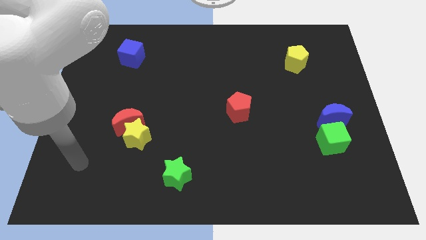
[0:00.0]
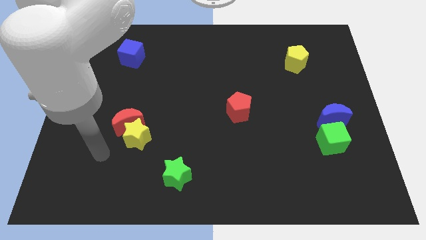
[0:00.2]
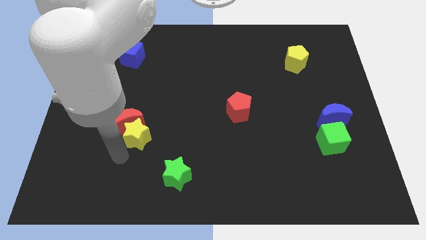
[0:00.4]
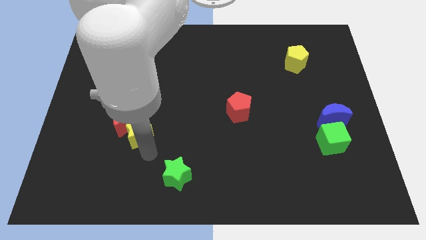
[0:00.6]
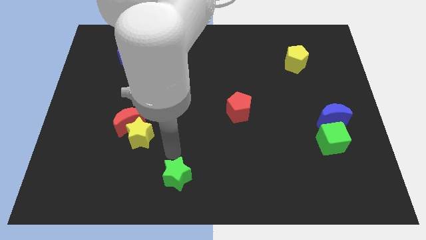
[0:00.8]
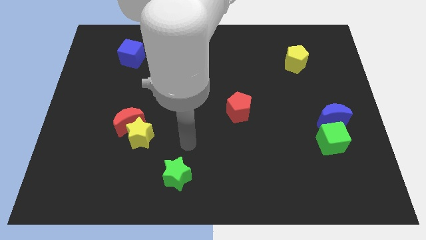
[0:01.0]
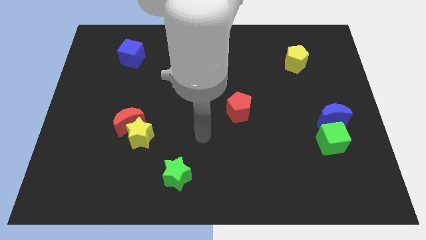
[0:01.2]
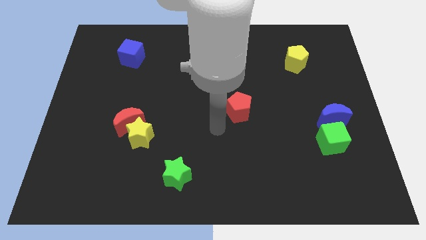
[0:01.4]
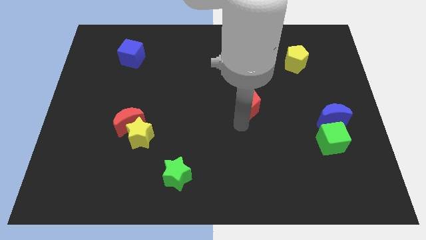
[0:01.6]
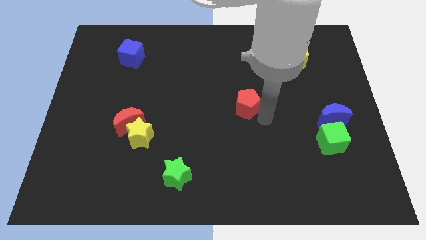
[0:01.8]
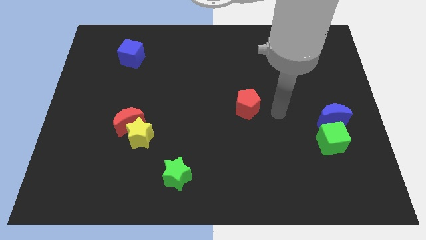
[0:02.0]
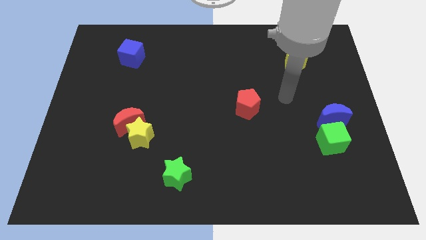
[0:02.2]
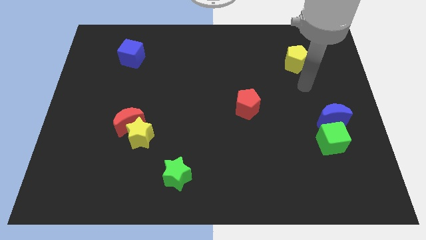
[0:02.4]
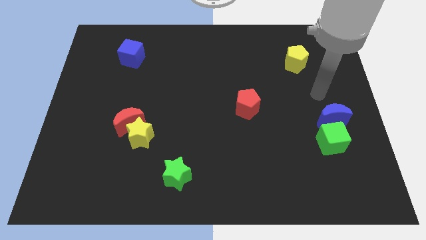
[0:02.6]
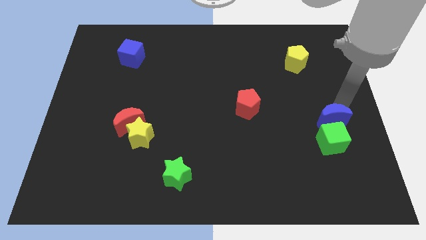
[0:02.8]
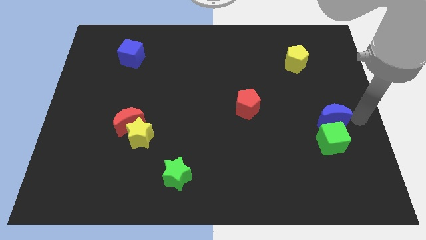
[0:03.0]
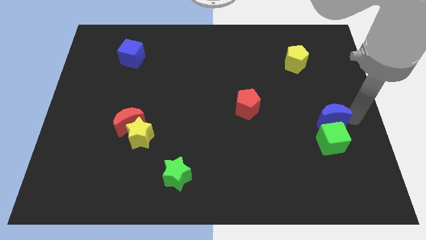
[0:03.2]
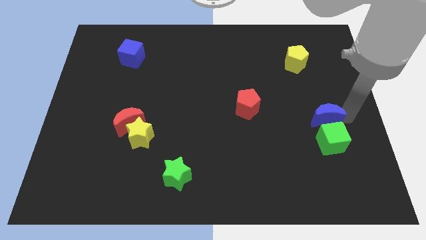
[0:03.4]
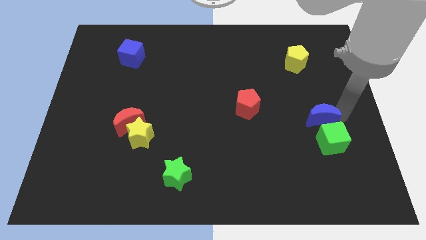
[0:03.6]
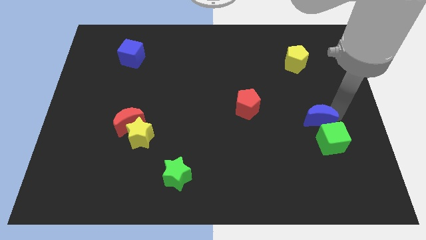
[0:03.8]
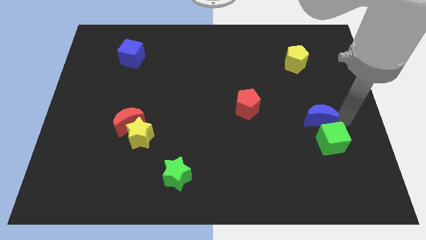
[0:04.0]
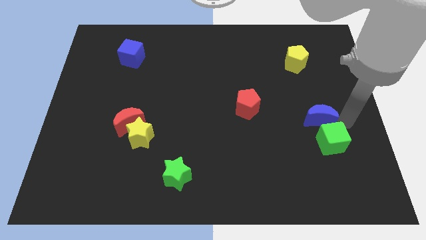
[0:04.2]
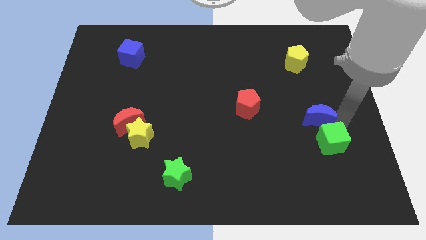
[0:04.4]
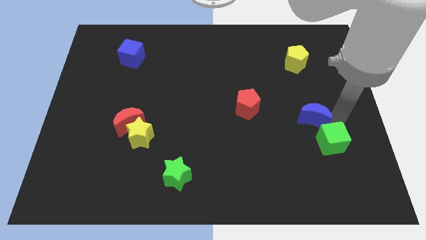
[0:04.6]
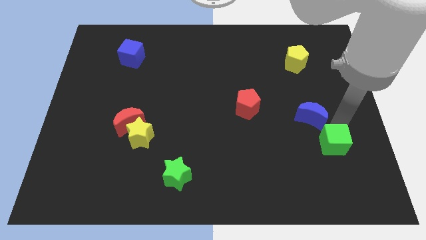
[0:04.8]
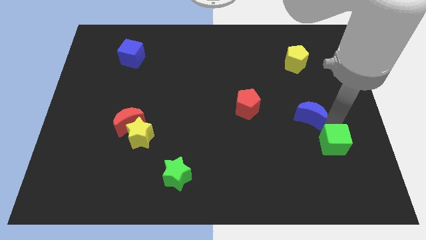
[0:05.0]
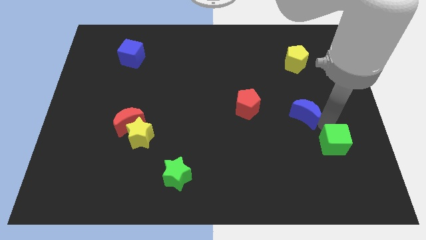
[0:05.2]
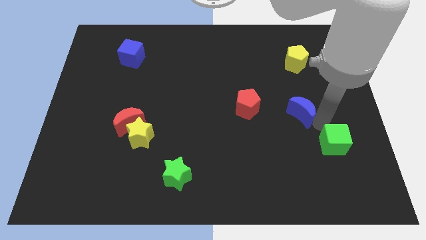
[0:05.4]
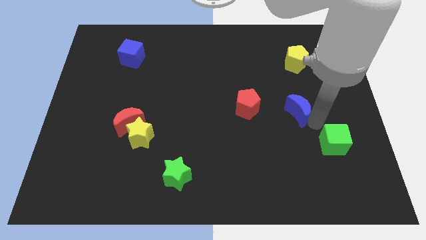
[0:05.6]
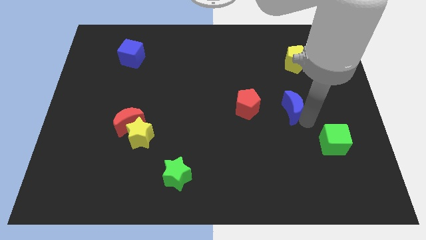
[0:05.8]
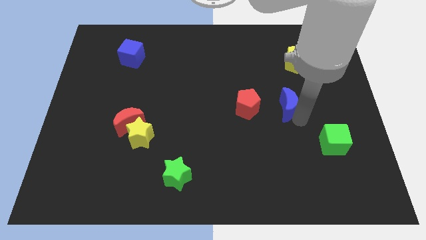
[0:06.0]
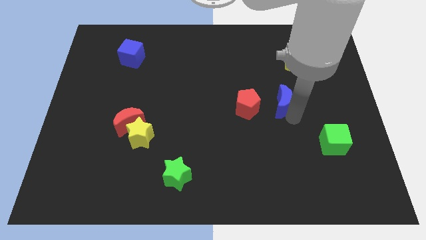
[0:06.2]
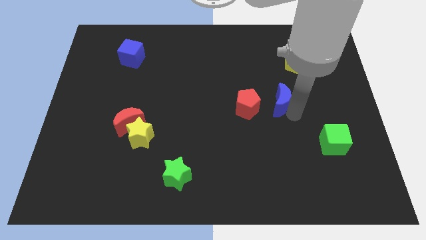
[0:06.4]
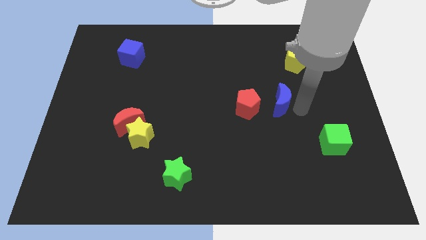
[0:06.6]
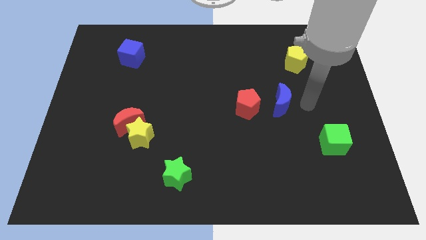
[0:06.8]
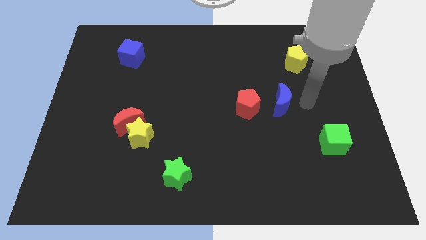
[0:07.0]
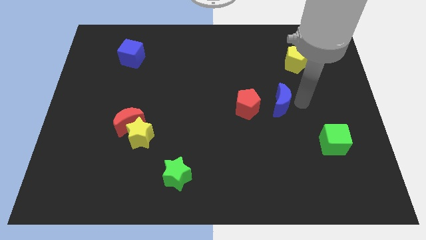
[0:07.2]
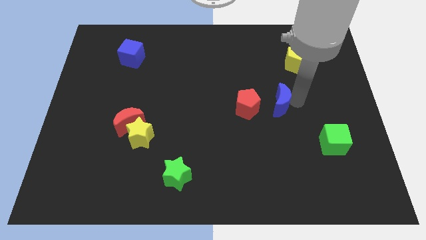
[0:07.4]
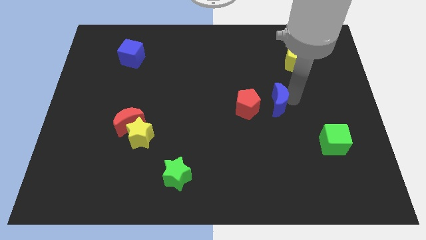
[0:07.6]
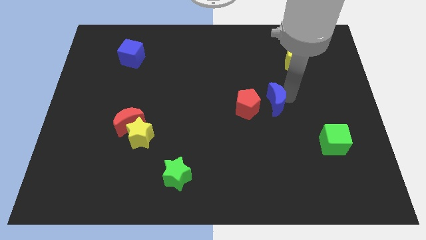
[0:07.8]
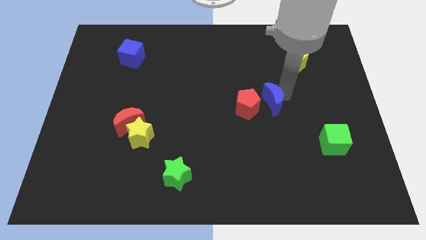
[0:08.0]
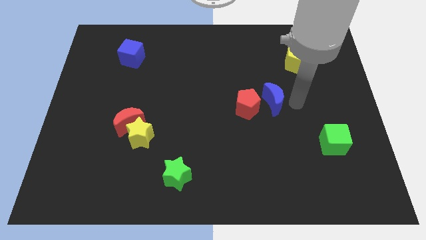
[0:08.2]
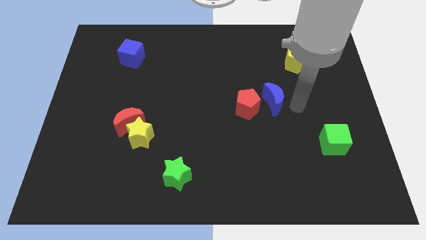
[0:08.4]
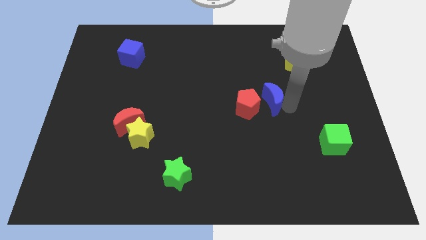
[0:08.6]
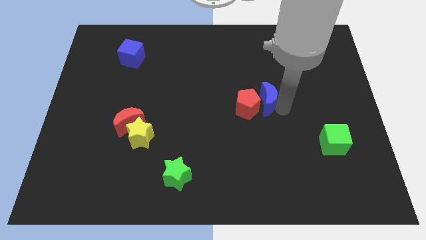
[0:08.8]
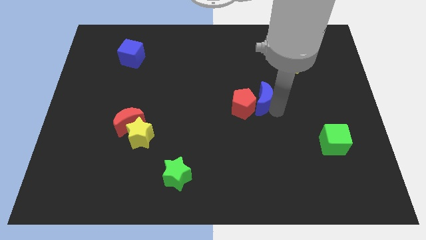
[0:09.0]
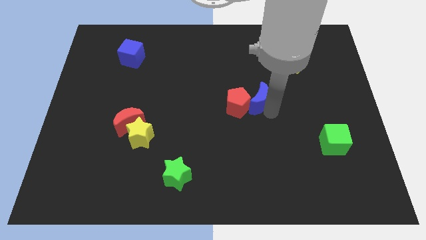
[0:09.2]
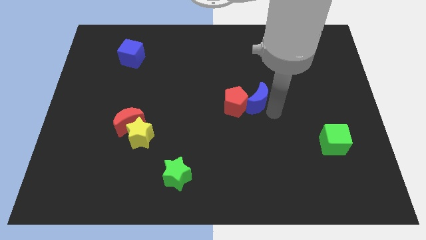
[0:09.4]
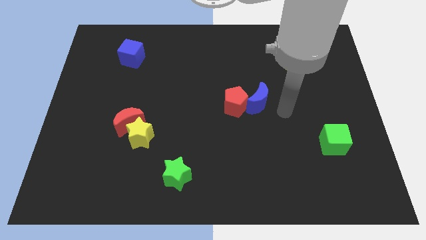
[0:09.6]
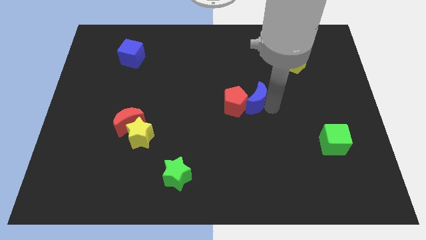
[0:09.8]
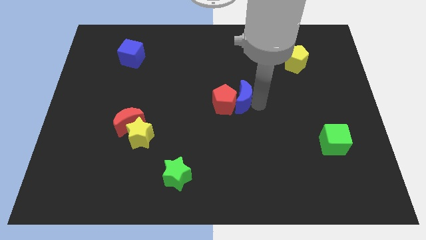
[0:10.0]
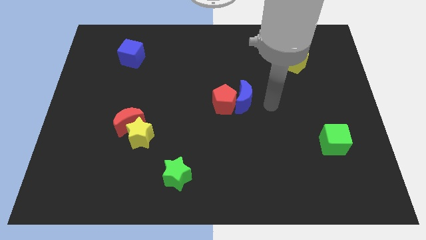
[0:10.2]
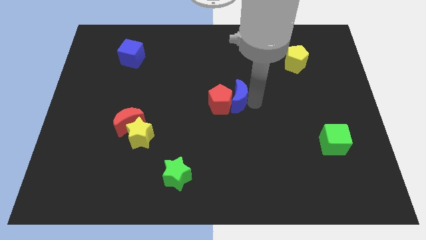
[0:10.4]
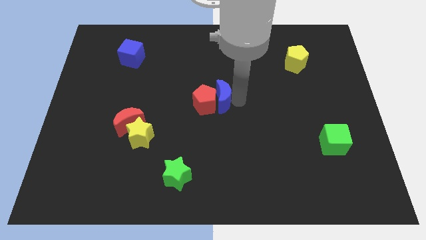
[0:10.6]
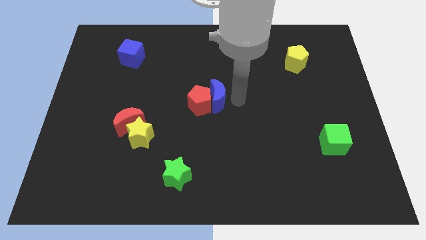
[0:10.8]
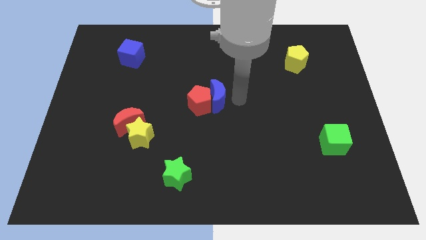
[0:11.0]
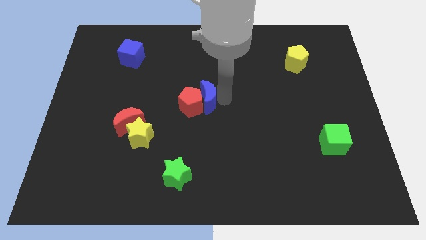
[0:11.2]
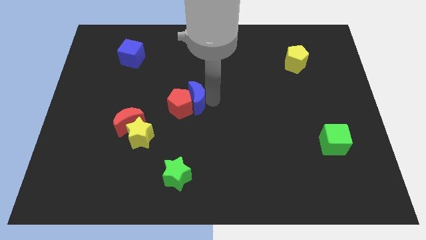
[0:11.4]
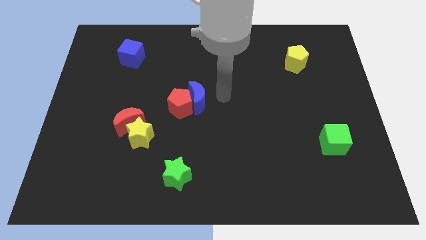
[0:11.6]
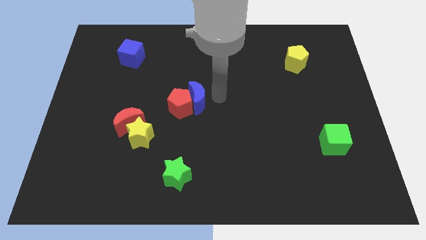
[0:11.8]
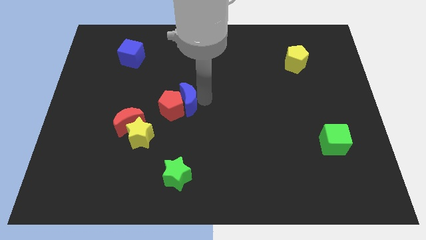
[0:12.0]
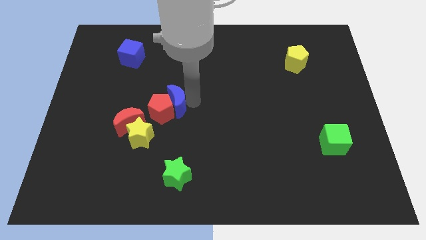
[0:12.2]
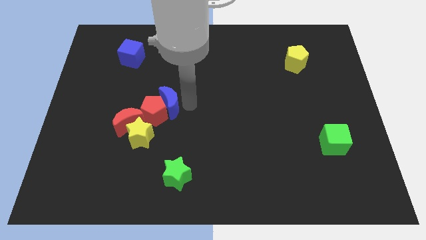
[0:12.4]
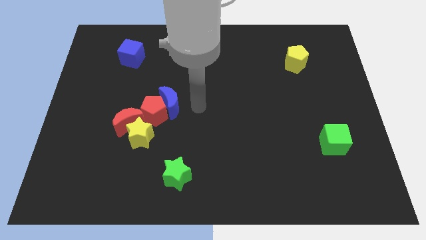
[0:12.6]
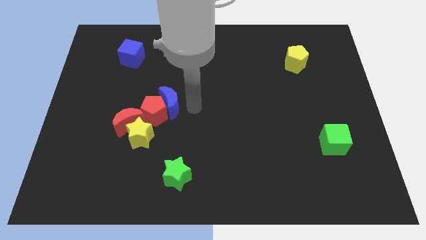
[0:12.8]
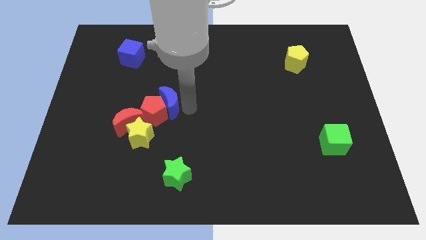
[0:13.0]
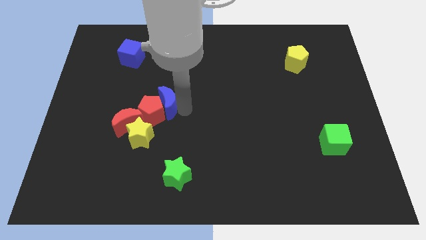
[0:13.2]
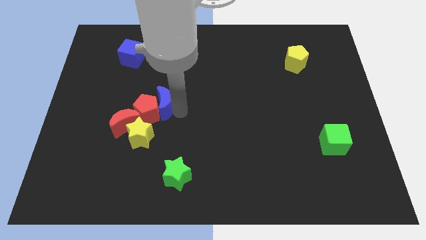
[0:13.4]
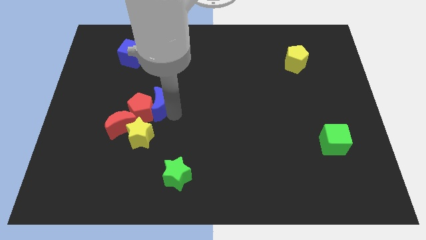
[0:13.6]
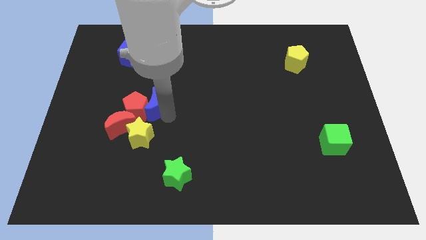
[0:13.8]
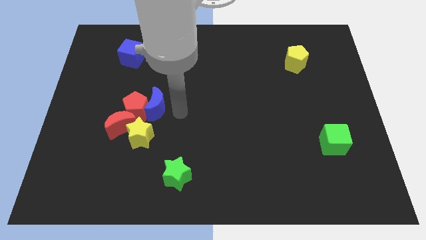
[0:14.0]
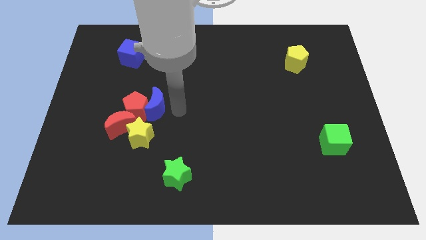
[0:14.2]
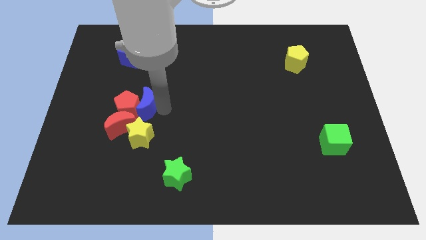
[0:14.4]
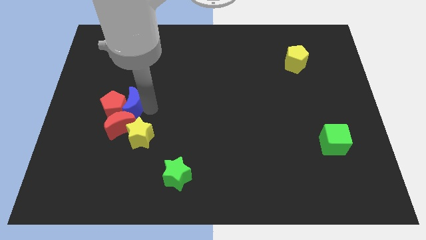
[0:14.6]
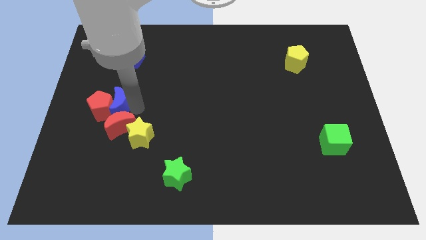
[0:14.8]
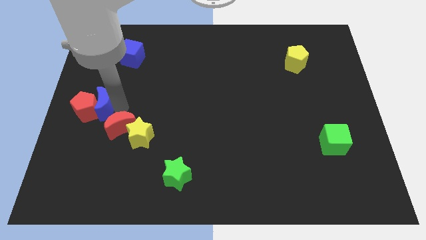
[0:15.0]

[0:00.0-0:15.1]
move the blue moon to the left side of the board
